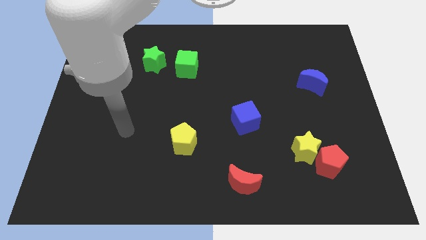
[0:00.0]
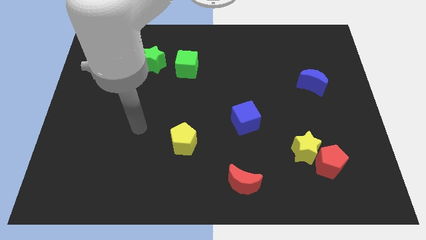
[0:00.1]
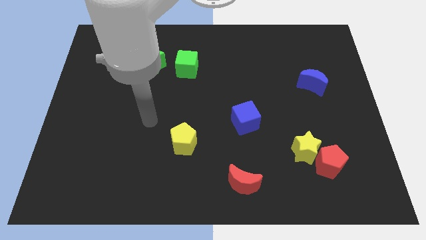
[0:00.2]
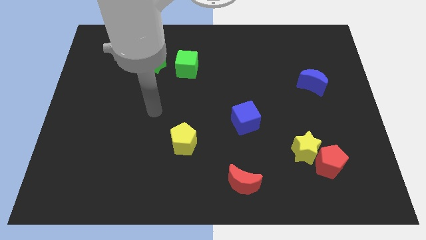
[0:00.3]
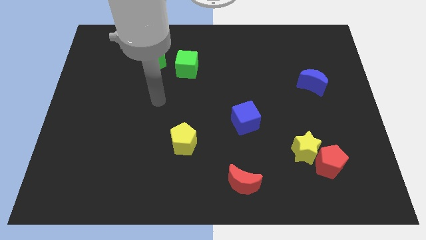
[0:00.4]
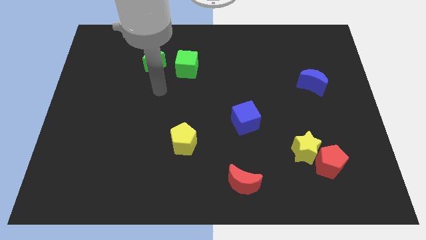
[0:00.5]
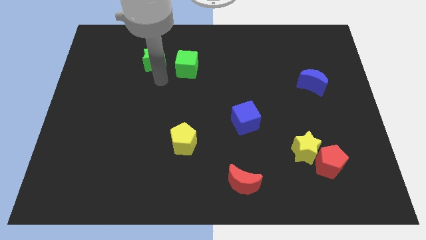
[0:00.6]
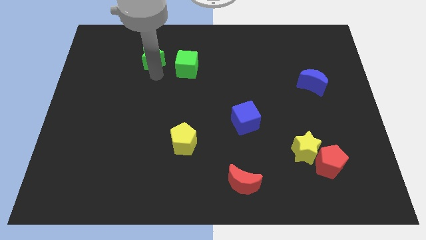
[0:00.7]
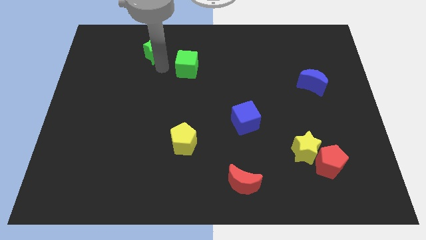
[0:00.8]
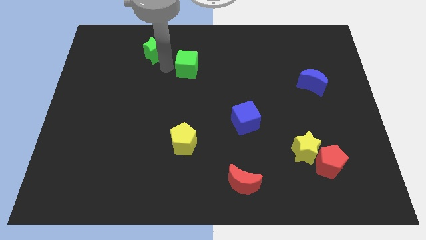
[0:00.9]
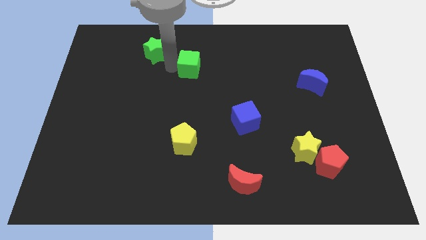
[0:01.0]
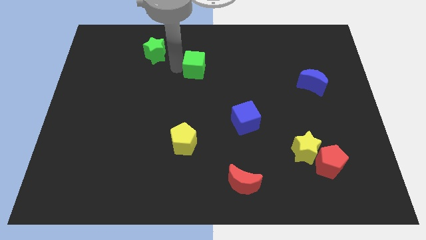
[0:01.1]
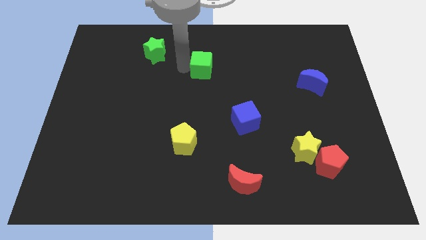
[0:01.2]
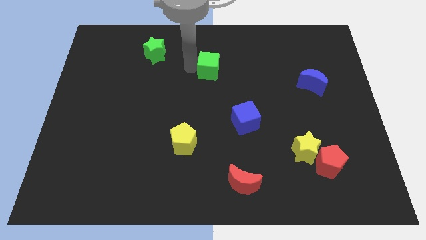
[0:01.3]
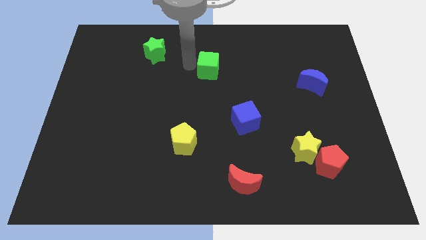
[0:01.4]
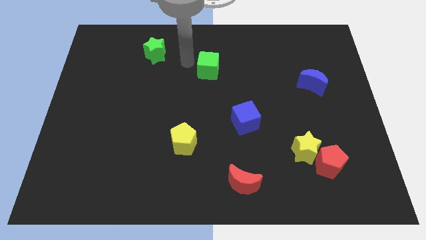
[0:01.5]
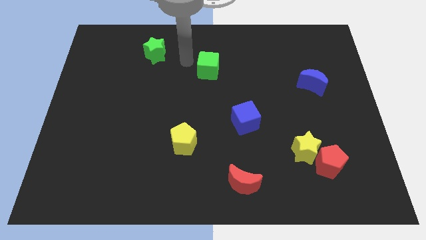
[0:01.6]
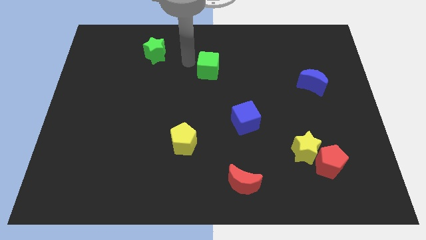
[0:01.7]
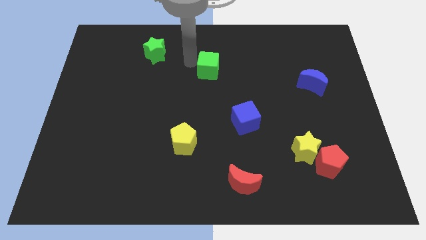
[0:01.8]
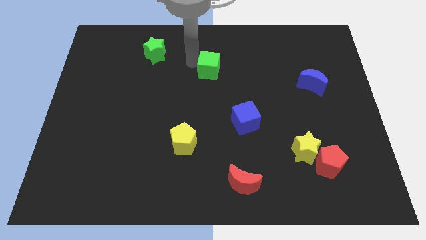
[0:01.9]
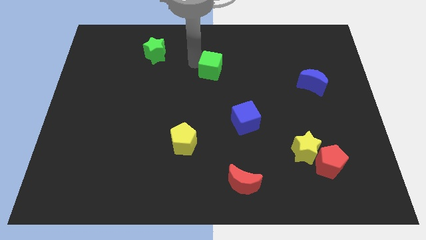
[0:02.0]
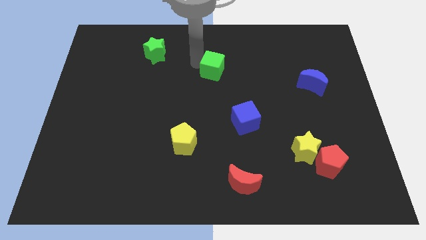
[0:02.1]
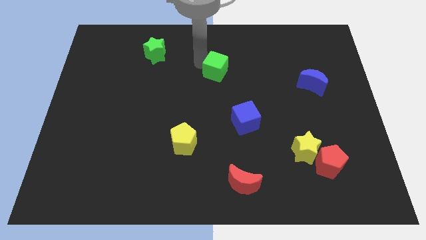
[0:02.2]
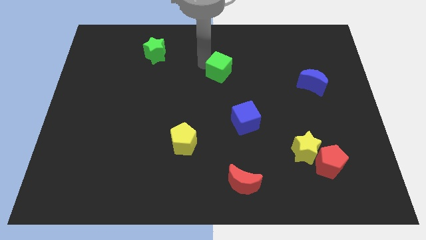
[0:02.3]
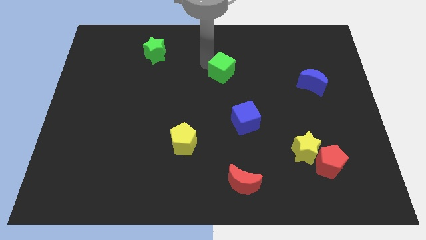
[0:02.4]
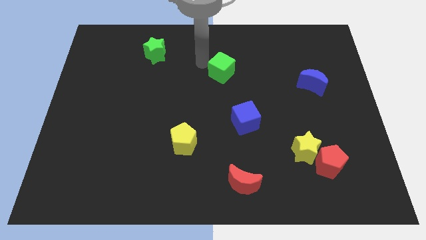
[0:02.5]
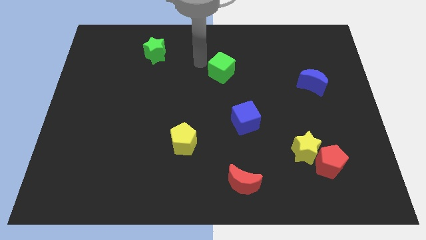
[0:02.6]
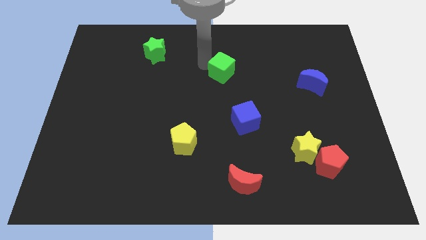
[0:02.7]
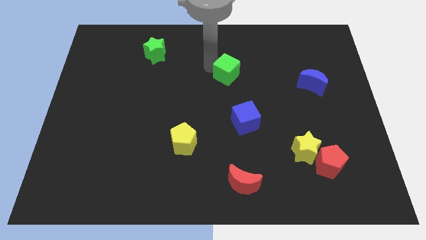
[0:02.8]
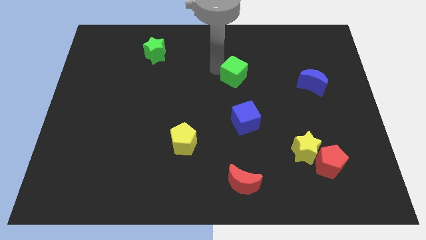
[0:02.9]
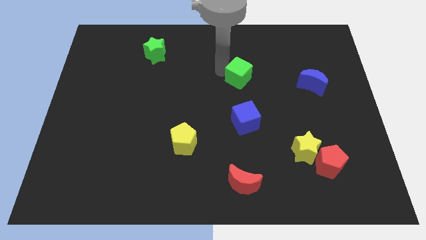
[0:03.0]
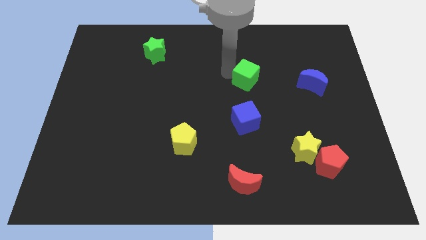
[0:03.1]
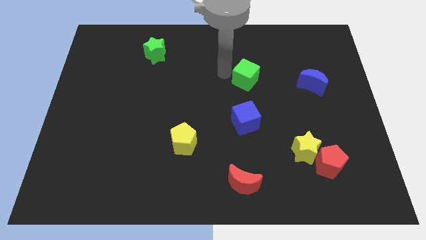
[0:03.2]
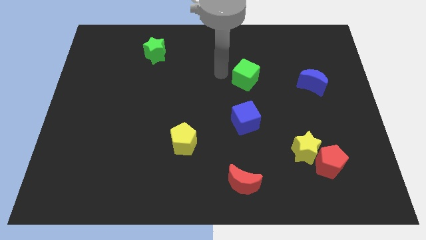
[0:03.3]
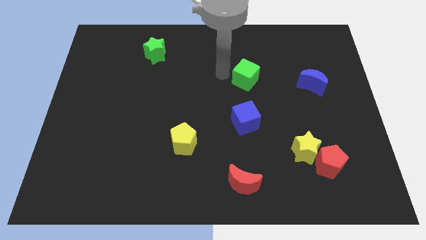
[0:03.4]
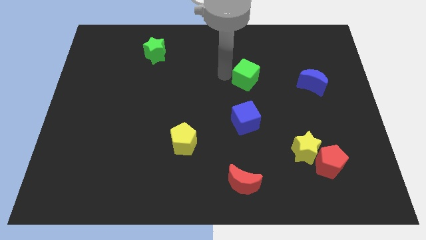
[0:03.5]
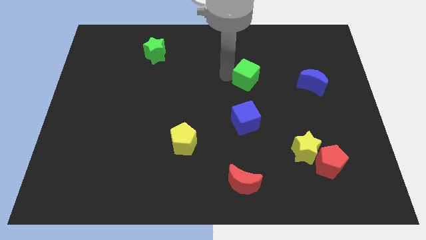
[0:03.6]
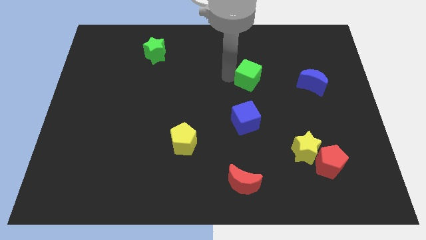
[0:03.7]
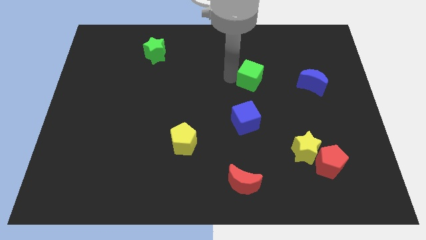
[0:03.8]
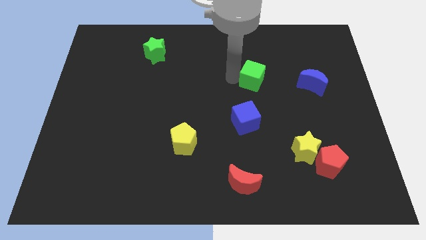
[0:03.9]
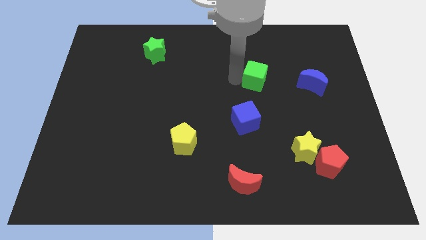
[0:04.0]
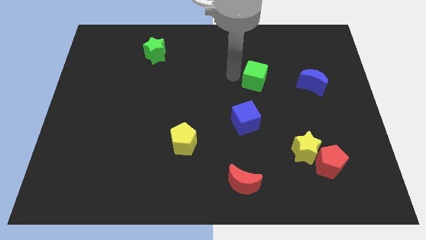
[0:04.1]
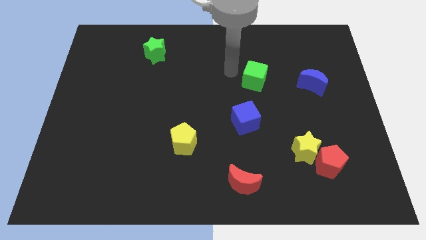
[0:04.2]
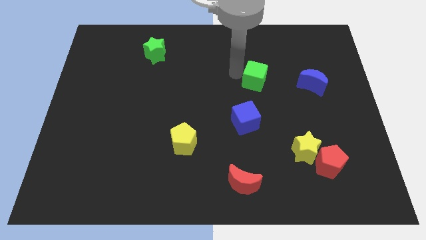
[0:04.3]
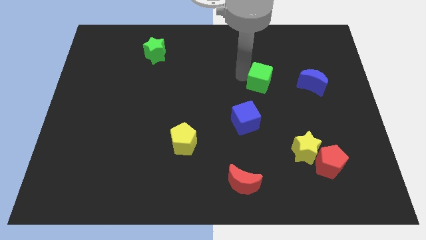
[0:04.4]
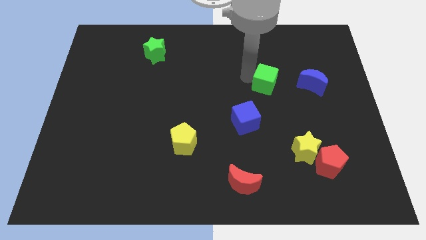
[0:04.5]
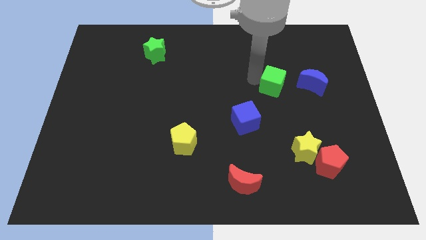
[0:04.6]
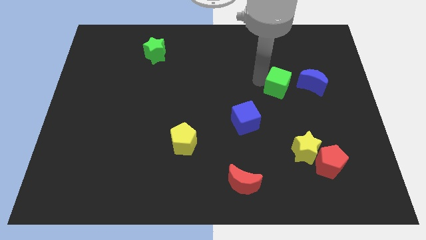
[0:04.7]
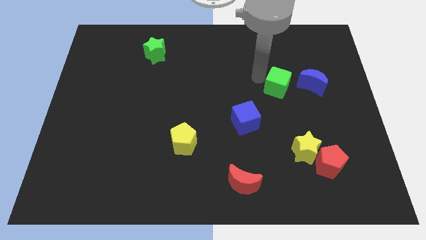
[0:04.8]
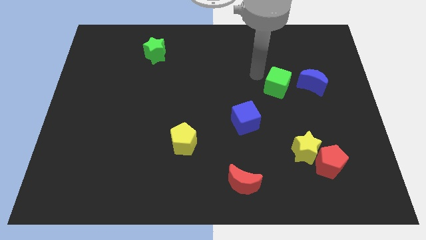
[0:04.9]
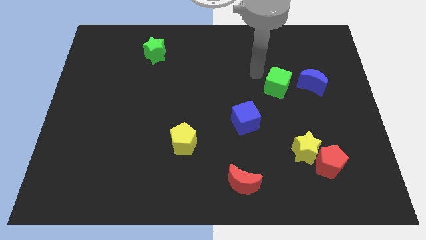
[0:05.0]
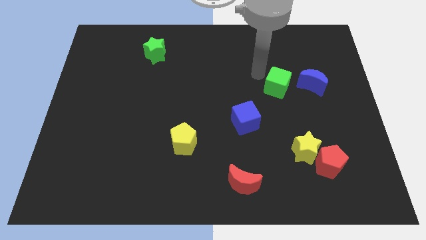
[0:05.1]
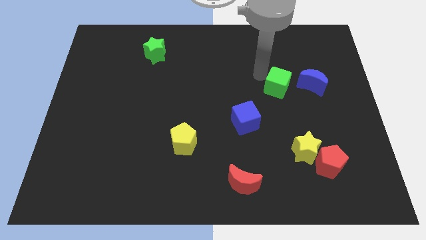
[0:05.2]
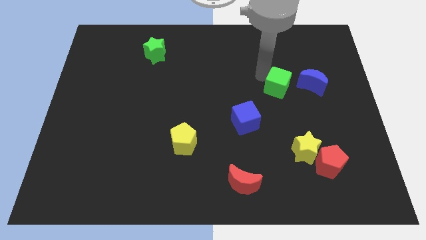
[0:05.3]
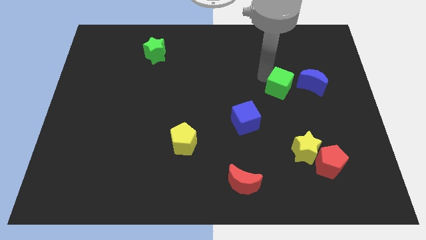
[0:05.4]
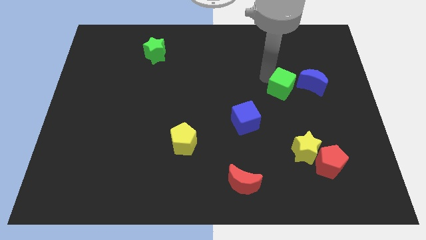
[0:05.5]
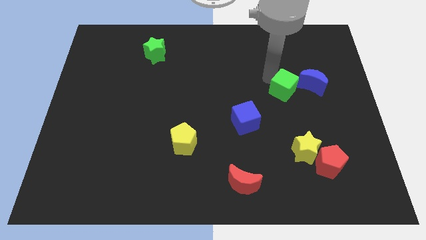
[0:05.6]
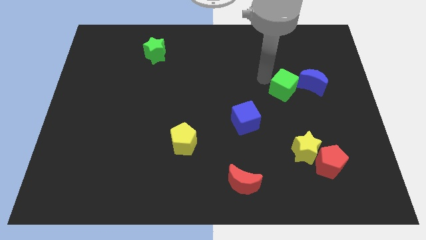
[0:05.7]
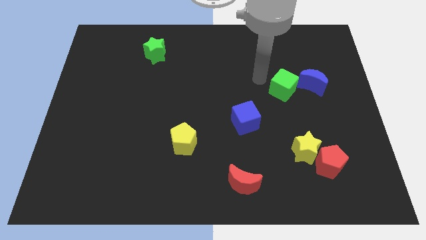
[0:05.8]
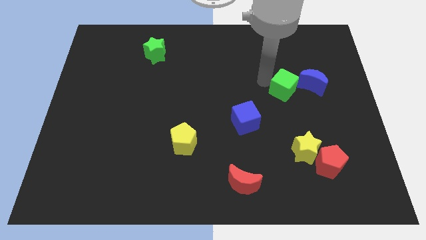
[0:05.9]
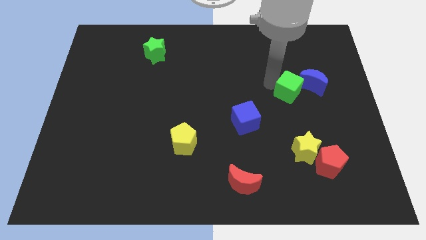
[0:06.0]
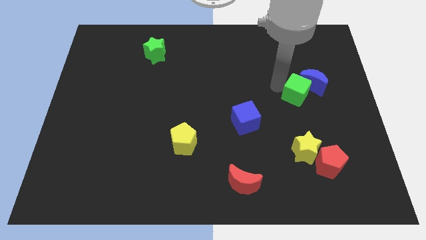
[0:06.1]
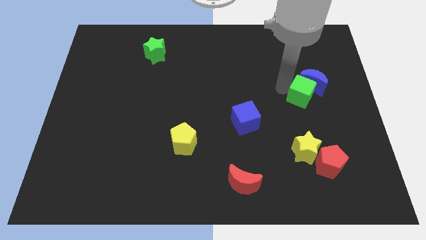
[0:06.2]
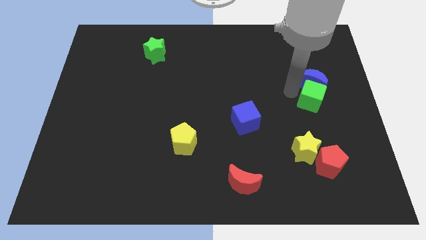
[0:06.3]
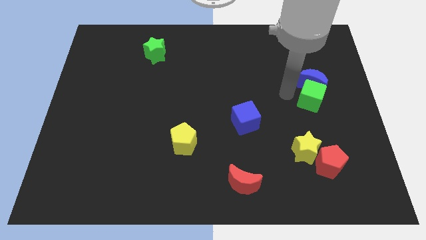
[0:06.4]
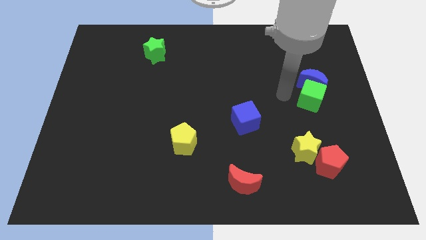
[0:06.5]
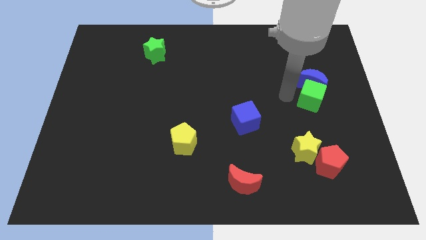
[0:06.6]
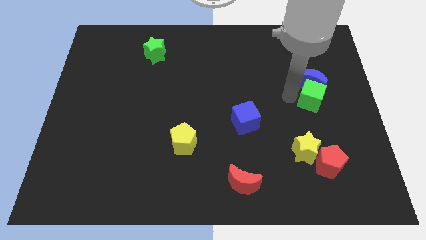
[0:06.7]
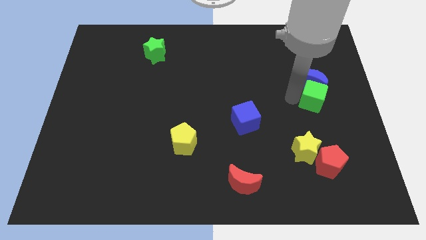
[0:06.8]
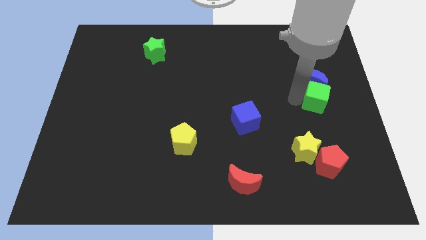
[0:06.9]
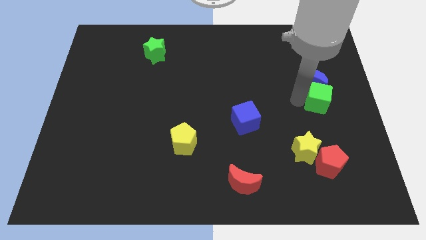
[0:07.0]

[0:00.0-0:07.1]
put the green cube to the center right

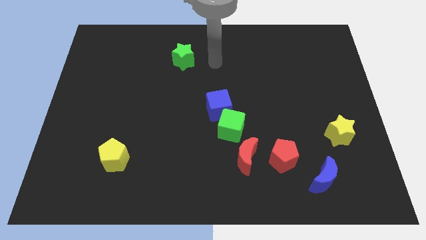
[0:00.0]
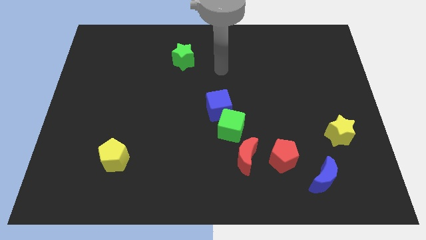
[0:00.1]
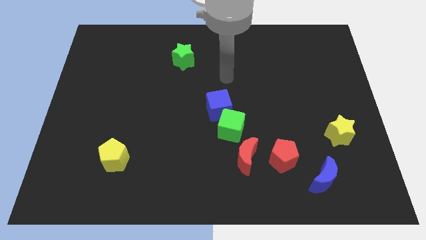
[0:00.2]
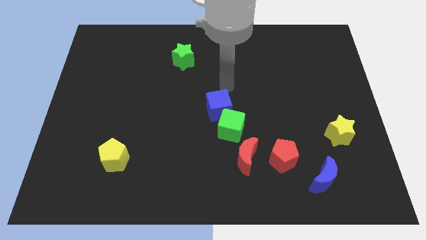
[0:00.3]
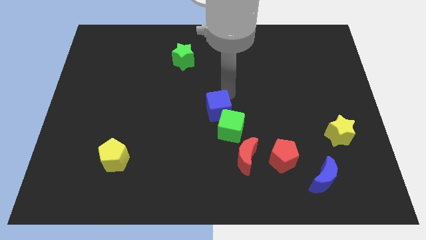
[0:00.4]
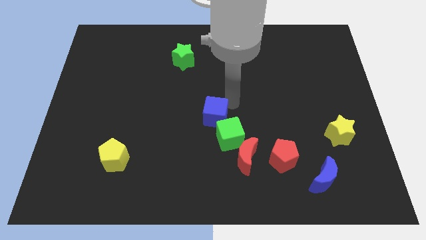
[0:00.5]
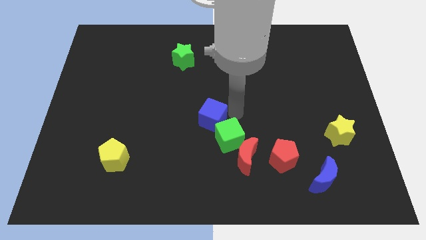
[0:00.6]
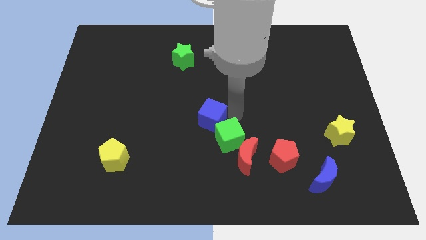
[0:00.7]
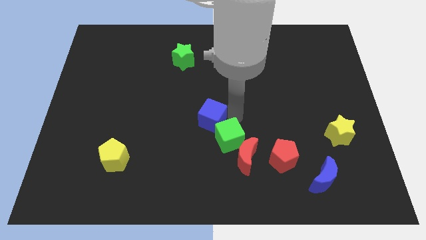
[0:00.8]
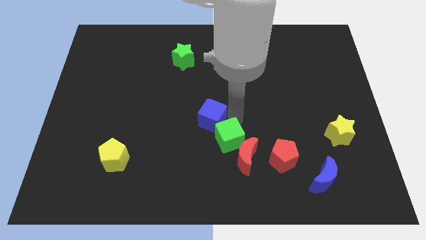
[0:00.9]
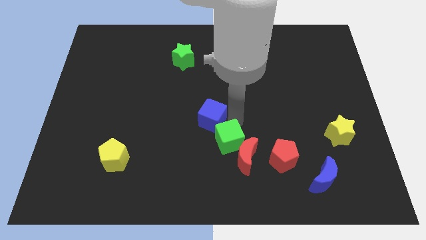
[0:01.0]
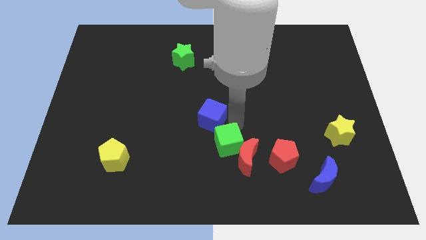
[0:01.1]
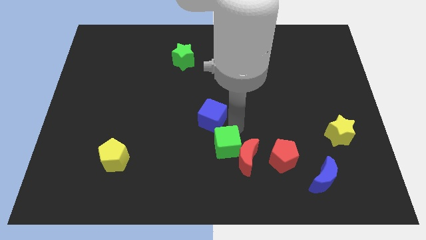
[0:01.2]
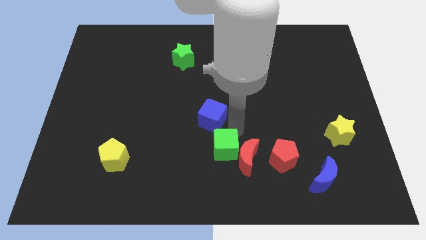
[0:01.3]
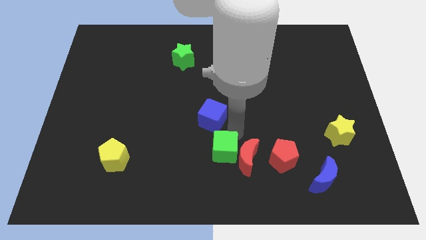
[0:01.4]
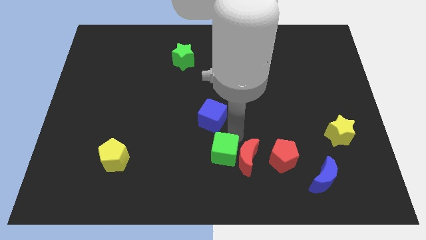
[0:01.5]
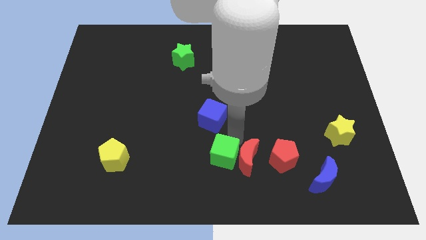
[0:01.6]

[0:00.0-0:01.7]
put the green cube to the bottom side
